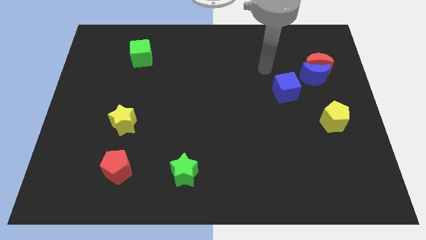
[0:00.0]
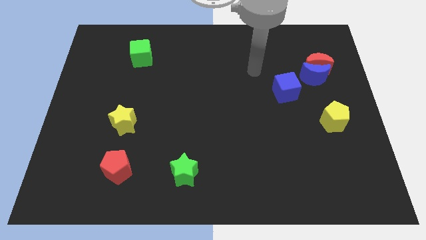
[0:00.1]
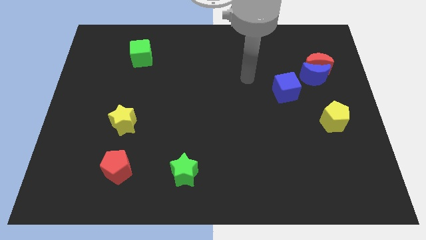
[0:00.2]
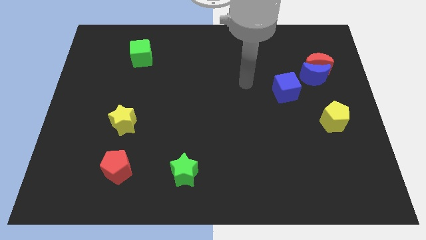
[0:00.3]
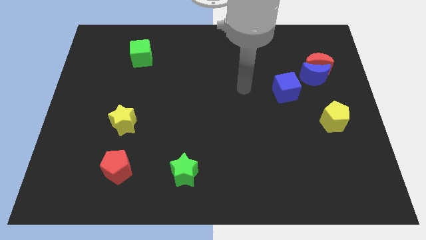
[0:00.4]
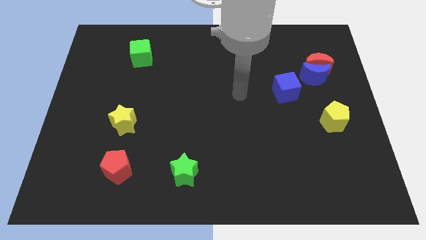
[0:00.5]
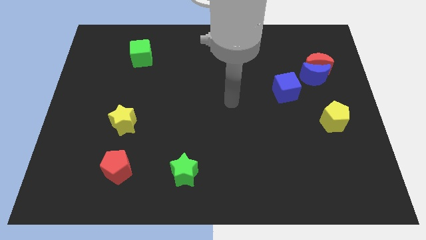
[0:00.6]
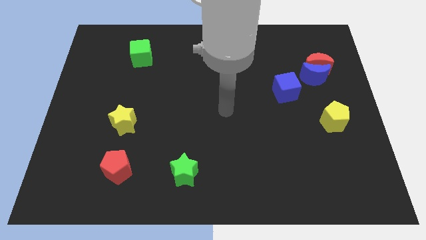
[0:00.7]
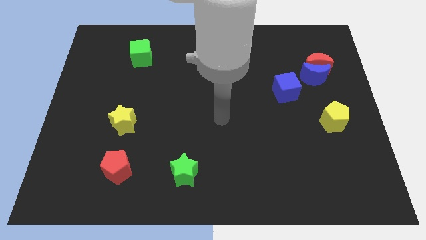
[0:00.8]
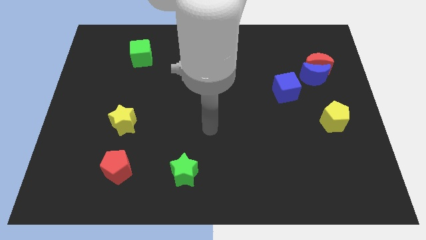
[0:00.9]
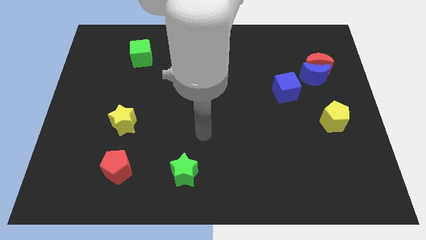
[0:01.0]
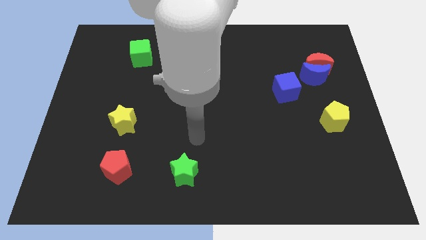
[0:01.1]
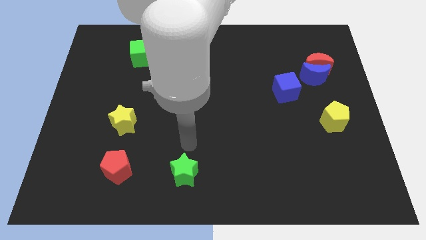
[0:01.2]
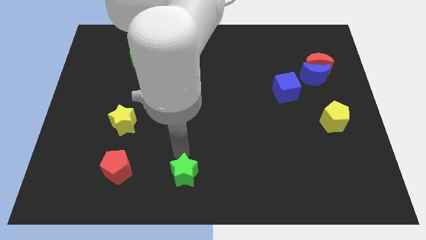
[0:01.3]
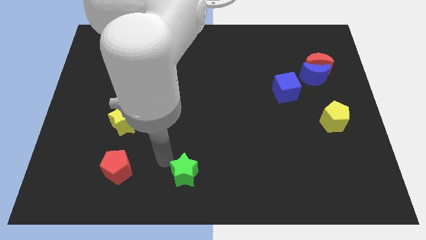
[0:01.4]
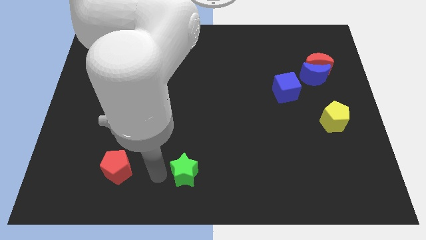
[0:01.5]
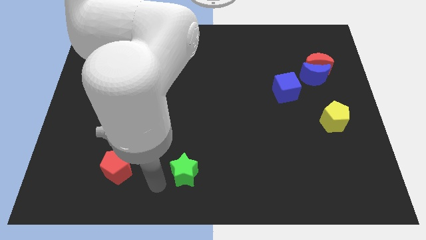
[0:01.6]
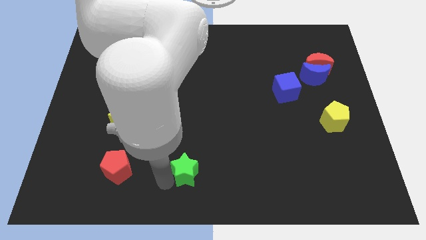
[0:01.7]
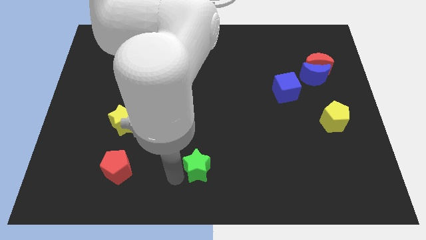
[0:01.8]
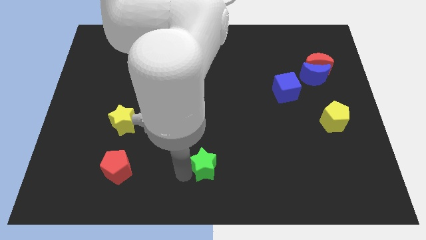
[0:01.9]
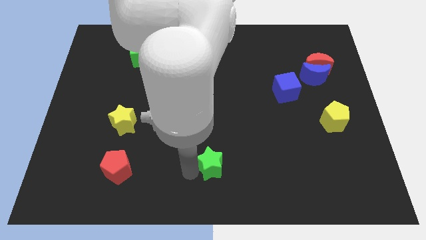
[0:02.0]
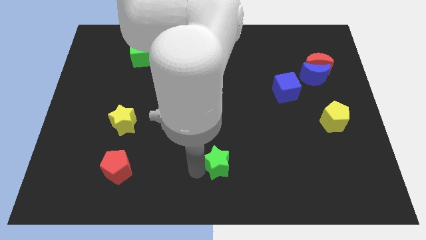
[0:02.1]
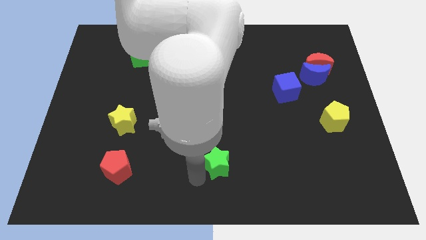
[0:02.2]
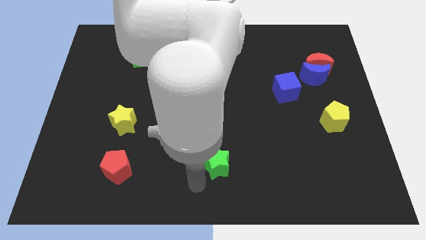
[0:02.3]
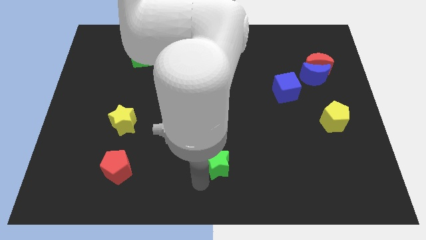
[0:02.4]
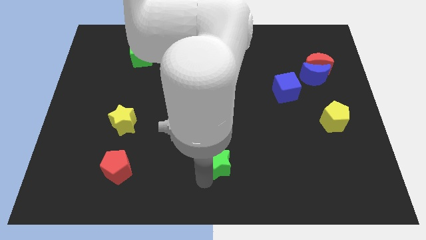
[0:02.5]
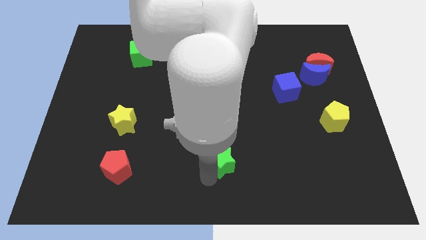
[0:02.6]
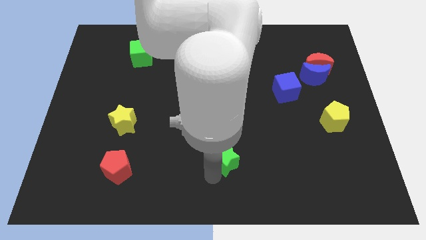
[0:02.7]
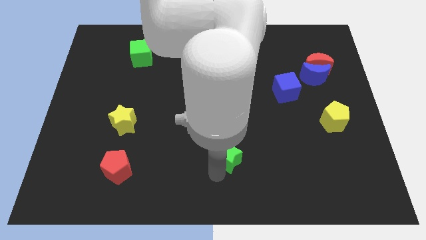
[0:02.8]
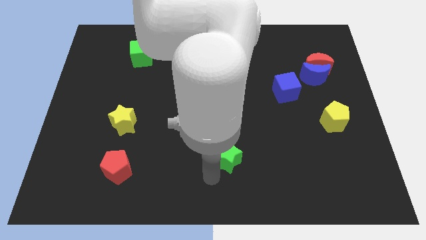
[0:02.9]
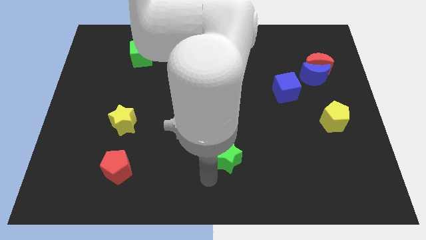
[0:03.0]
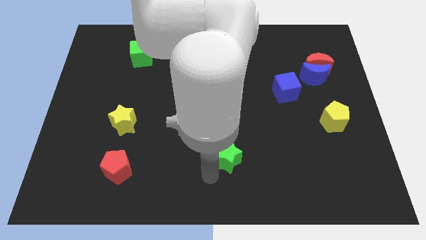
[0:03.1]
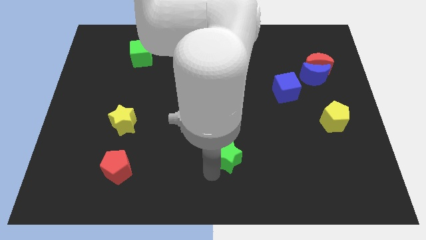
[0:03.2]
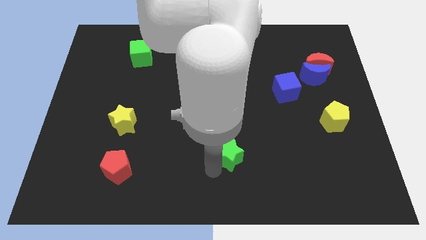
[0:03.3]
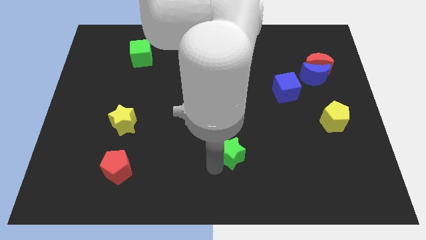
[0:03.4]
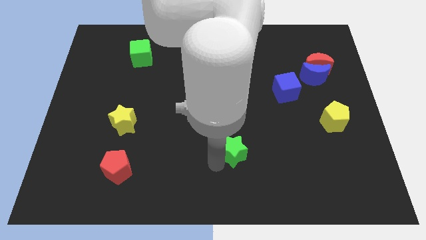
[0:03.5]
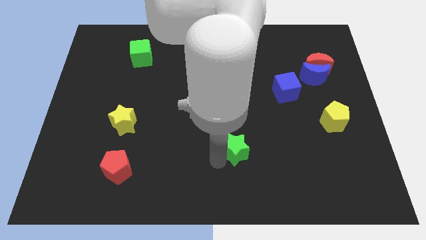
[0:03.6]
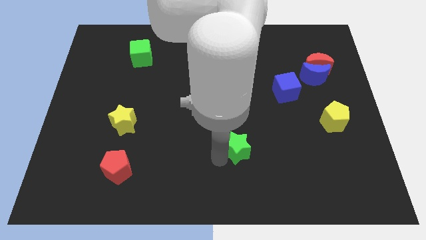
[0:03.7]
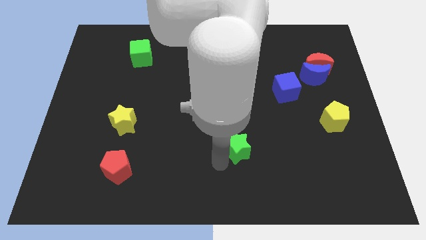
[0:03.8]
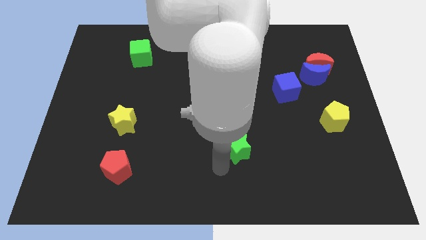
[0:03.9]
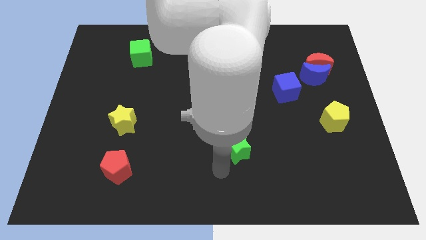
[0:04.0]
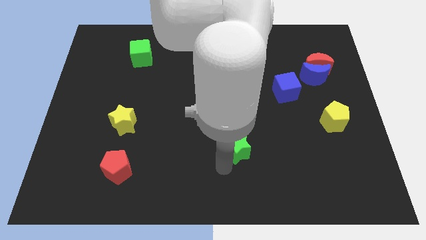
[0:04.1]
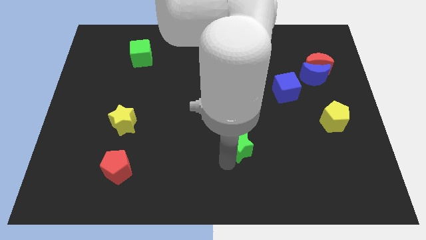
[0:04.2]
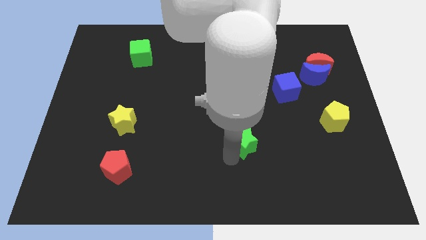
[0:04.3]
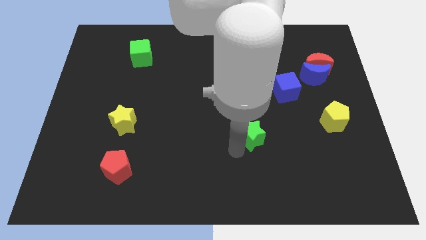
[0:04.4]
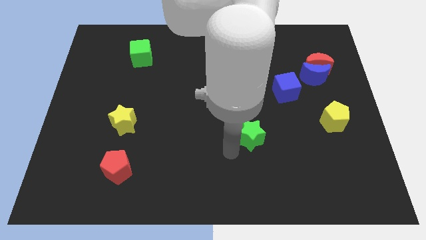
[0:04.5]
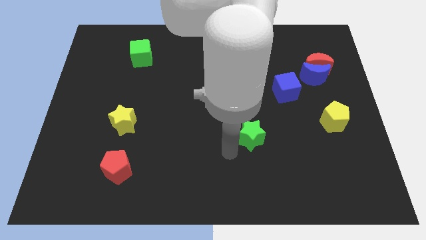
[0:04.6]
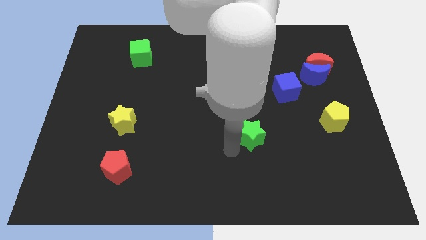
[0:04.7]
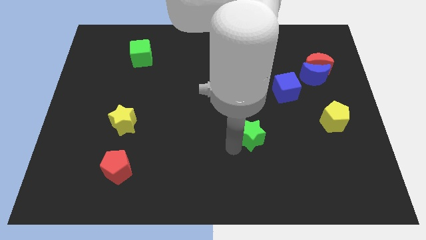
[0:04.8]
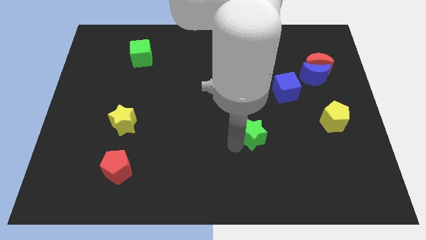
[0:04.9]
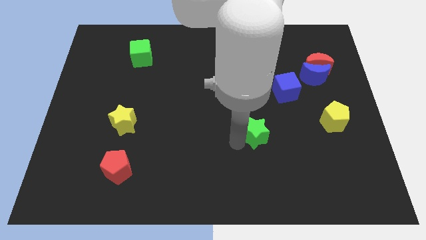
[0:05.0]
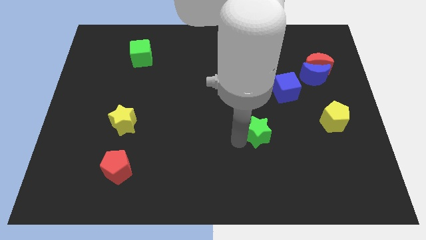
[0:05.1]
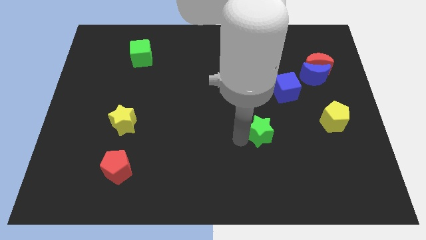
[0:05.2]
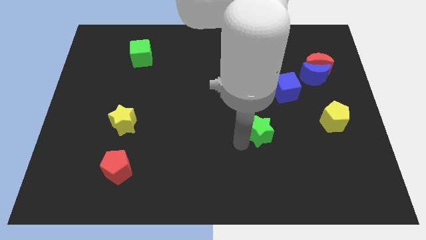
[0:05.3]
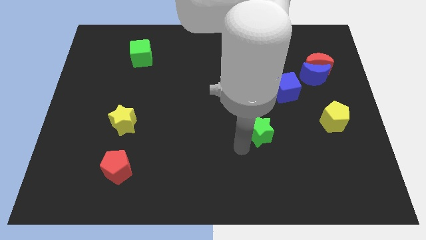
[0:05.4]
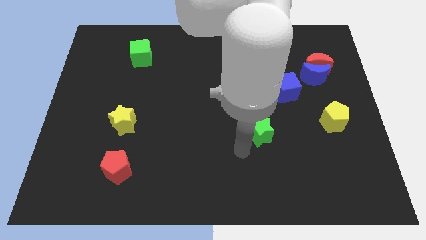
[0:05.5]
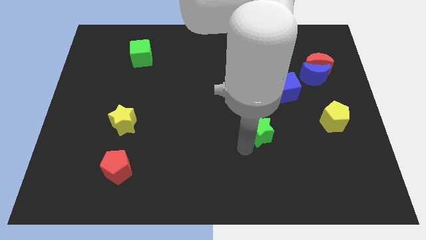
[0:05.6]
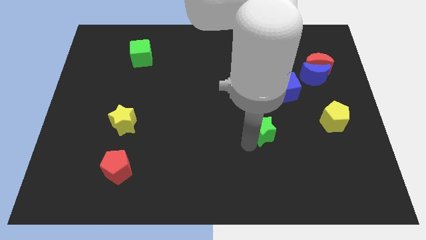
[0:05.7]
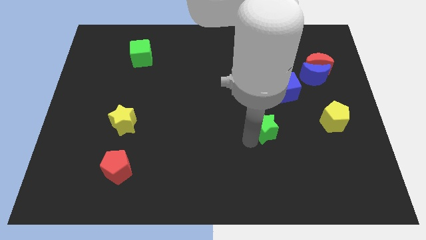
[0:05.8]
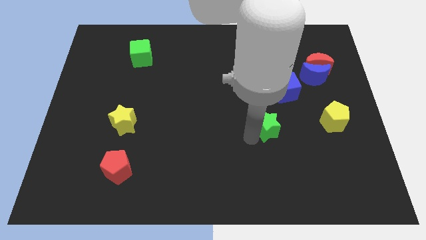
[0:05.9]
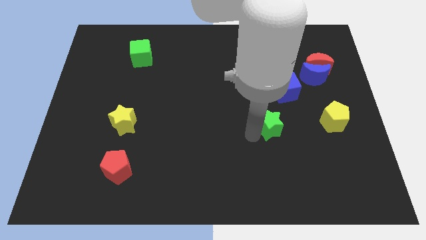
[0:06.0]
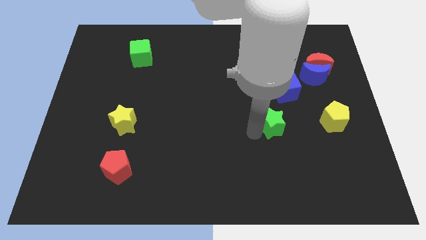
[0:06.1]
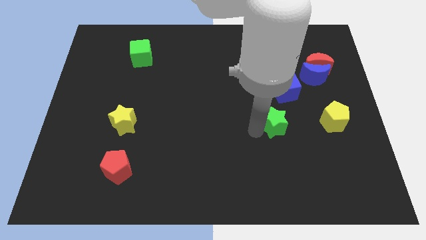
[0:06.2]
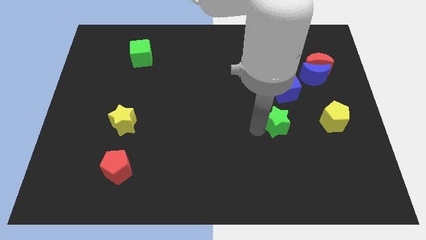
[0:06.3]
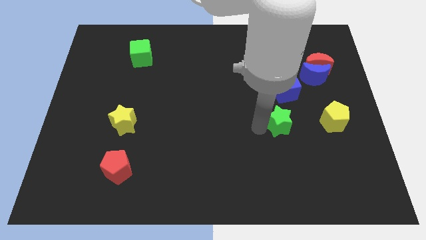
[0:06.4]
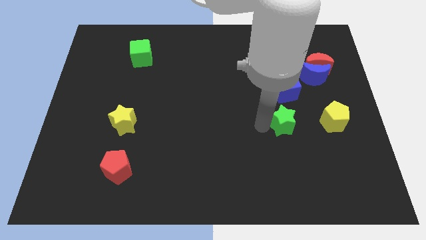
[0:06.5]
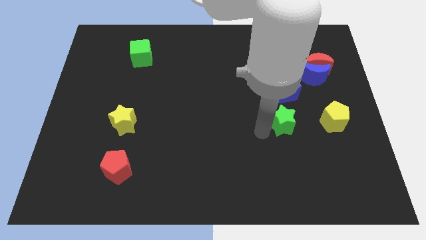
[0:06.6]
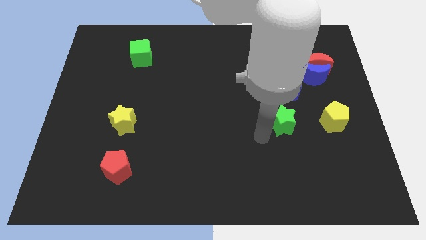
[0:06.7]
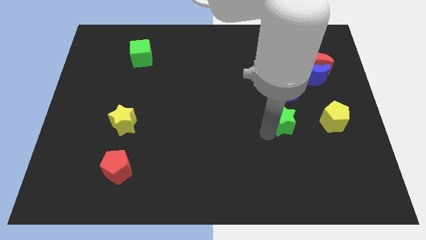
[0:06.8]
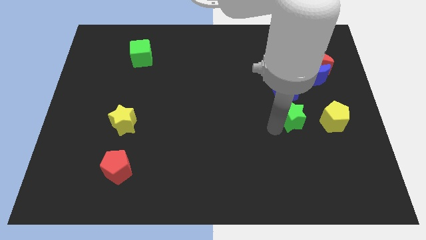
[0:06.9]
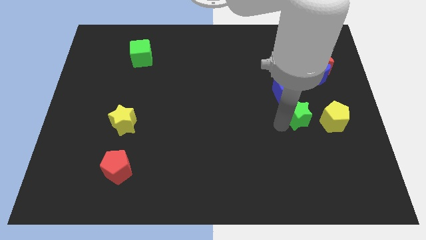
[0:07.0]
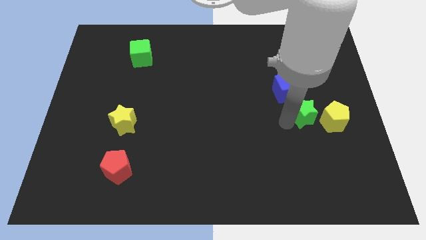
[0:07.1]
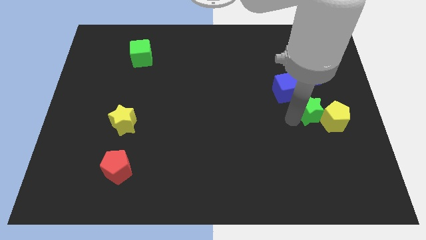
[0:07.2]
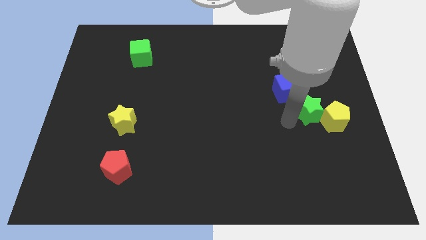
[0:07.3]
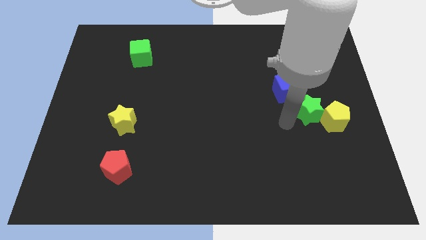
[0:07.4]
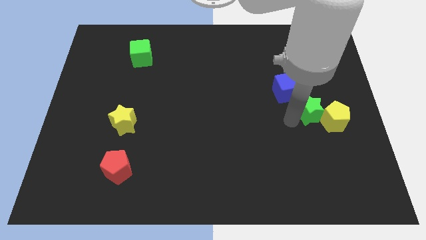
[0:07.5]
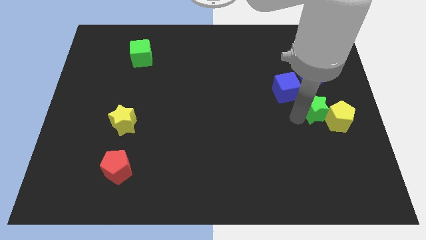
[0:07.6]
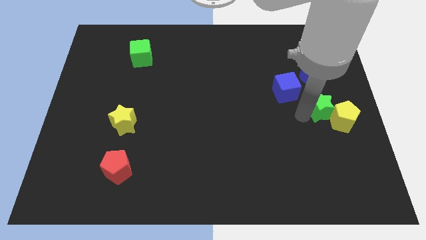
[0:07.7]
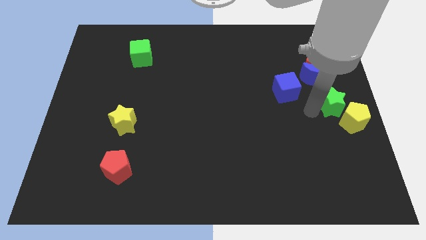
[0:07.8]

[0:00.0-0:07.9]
push the green star to the right side
